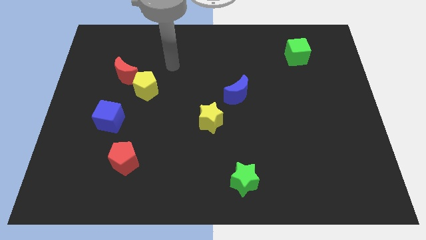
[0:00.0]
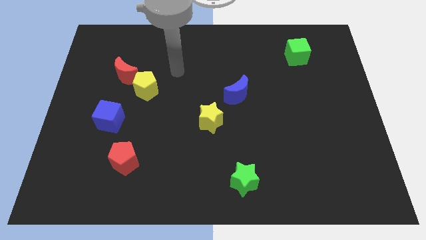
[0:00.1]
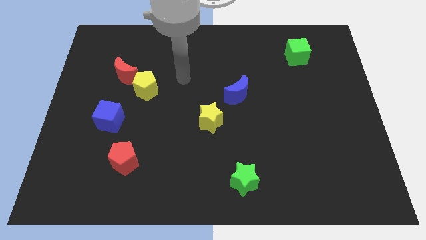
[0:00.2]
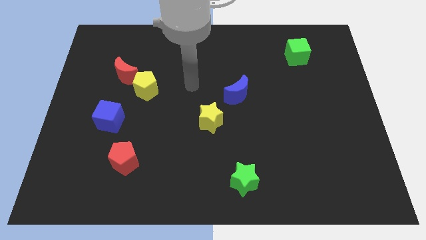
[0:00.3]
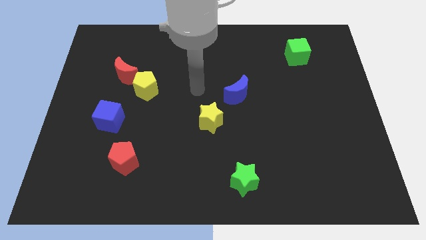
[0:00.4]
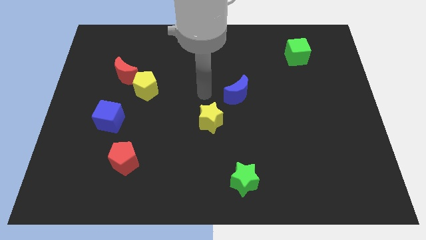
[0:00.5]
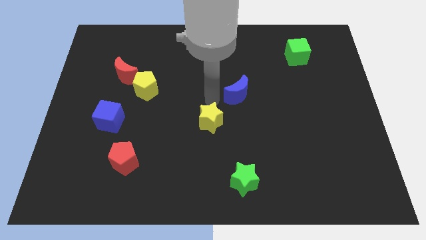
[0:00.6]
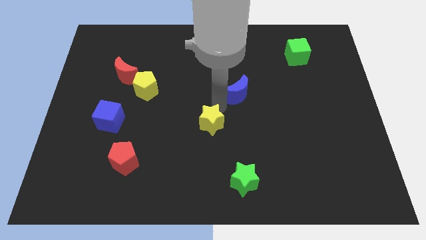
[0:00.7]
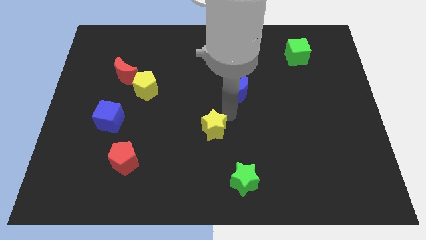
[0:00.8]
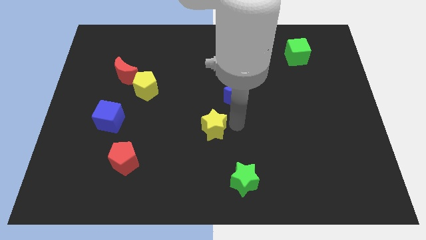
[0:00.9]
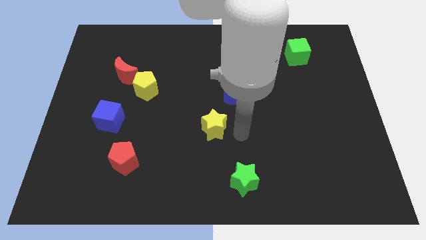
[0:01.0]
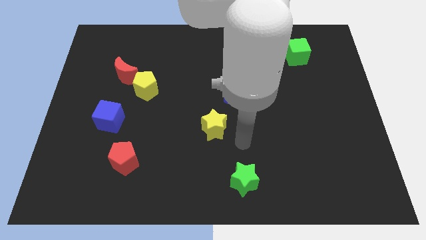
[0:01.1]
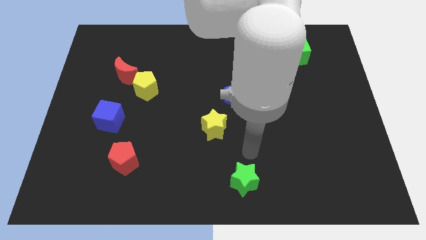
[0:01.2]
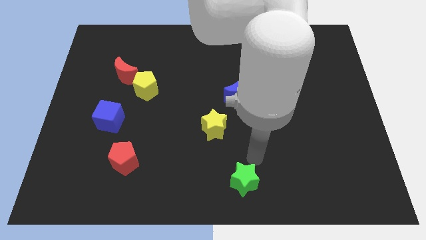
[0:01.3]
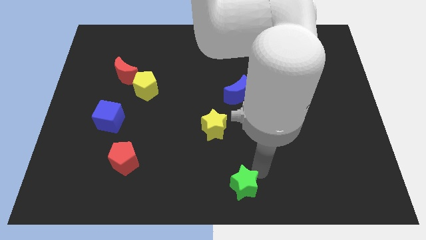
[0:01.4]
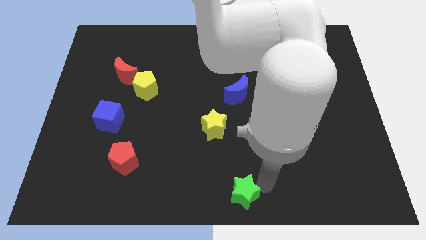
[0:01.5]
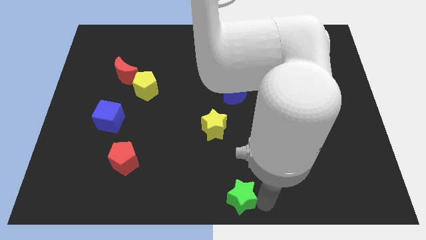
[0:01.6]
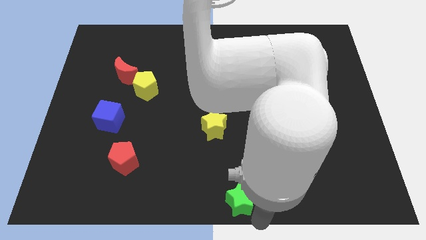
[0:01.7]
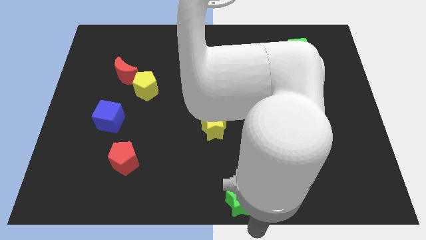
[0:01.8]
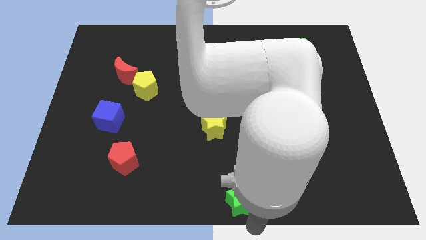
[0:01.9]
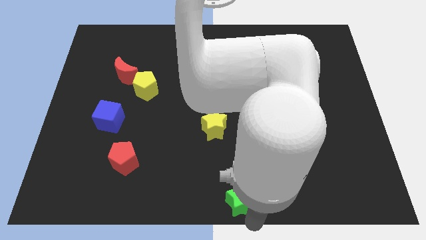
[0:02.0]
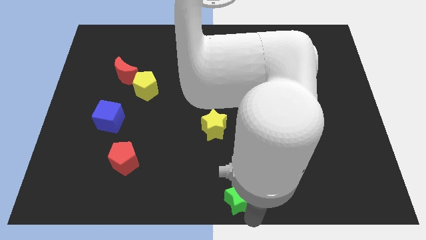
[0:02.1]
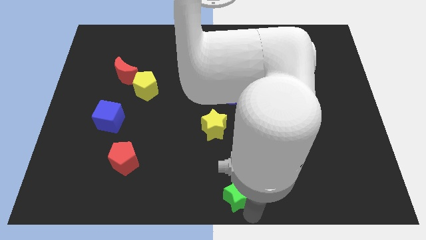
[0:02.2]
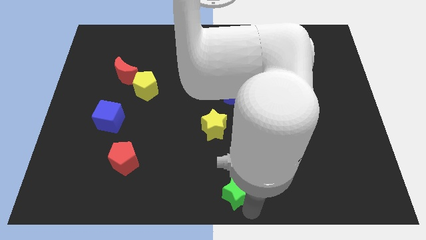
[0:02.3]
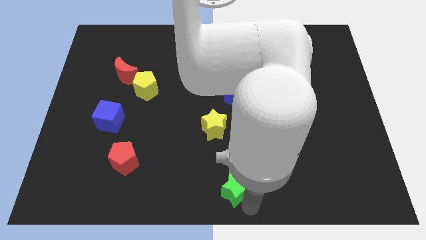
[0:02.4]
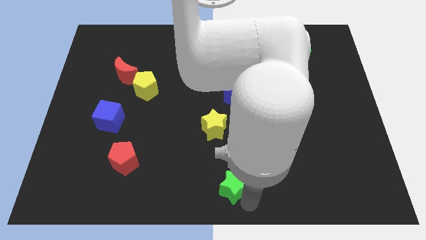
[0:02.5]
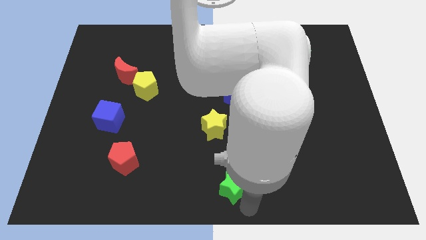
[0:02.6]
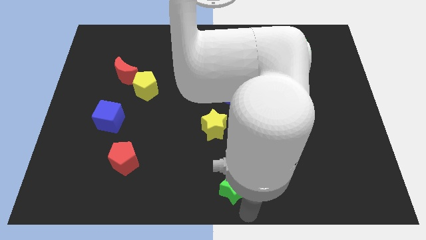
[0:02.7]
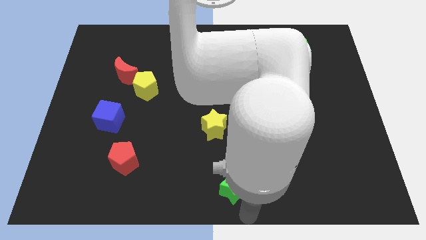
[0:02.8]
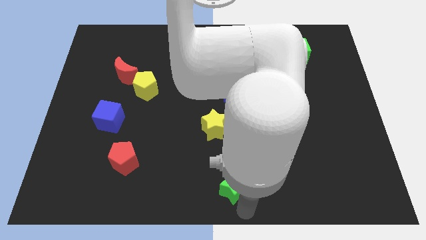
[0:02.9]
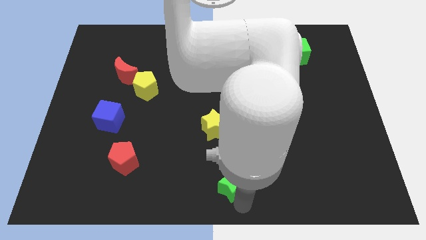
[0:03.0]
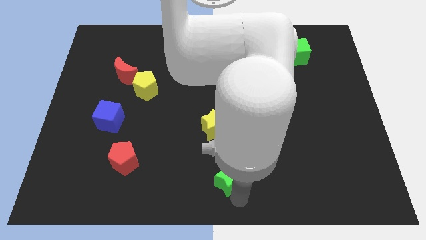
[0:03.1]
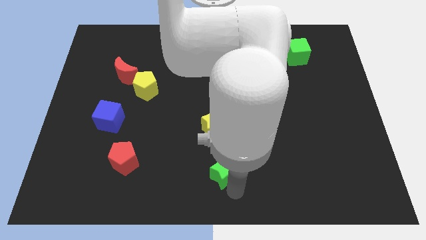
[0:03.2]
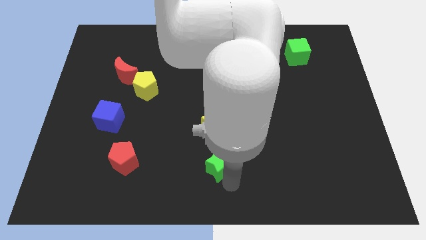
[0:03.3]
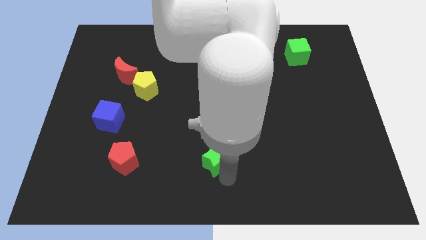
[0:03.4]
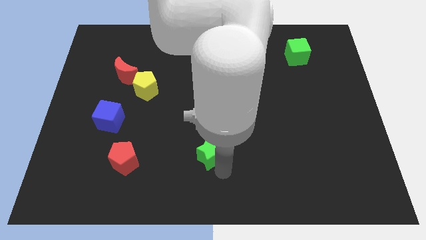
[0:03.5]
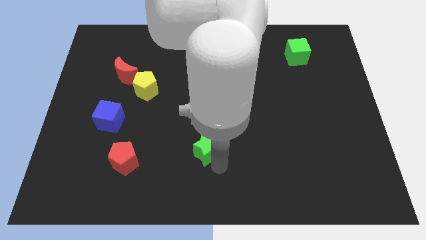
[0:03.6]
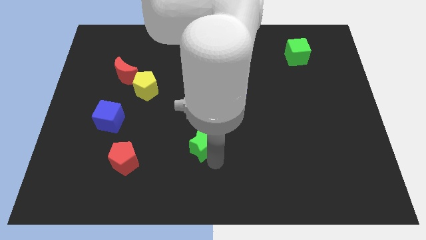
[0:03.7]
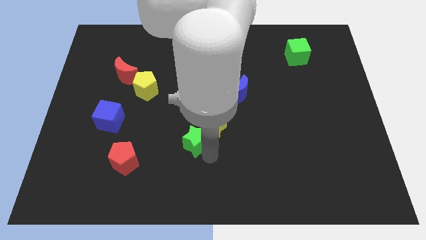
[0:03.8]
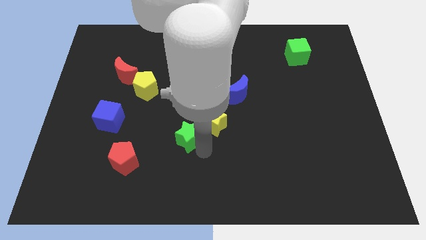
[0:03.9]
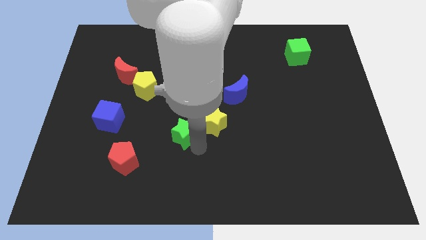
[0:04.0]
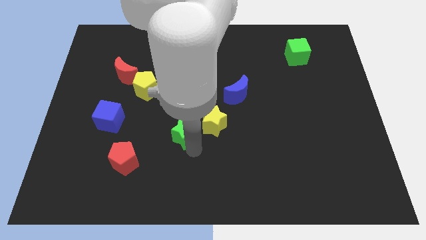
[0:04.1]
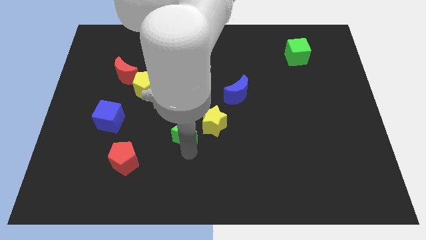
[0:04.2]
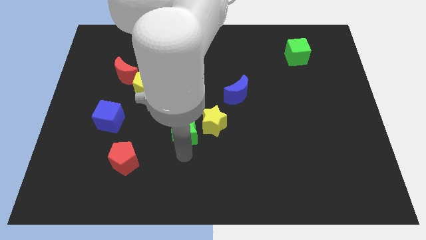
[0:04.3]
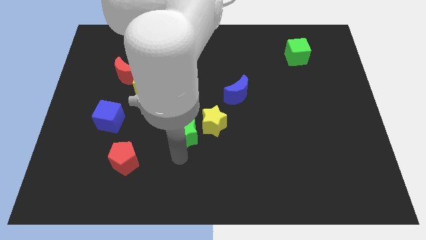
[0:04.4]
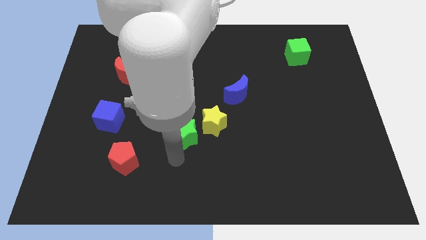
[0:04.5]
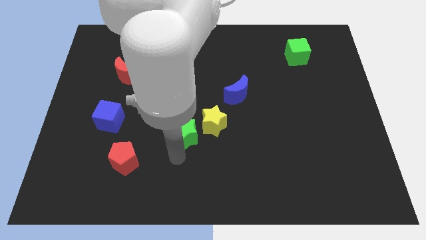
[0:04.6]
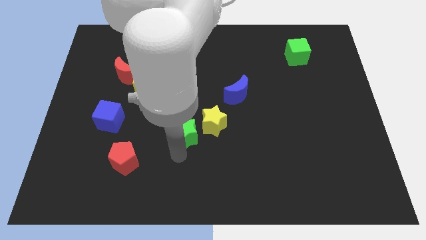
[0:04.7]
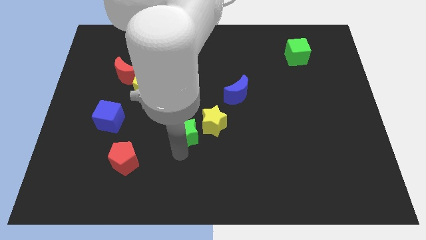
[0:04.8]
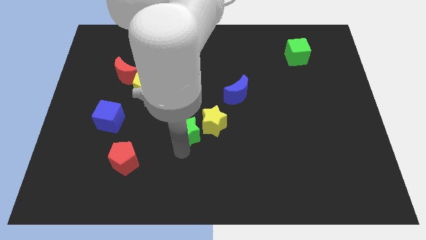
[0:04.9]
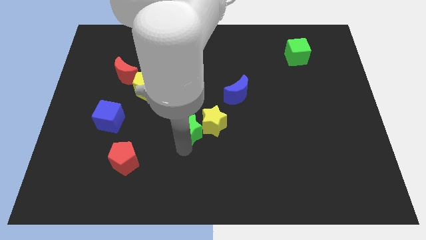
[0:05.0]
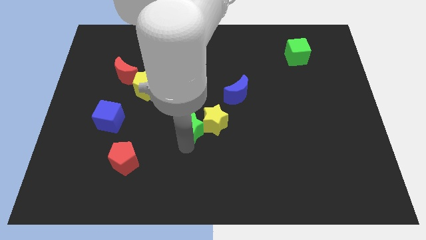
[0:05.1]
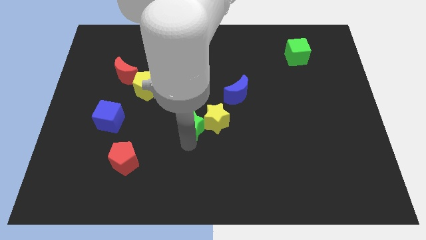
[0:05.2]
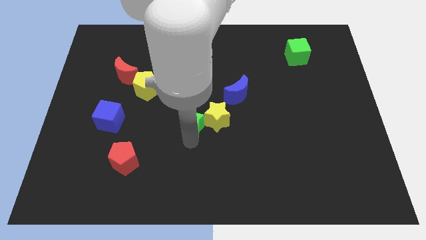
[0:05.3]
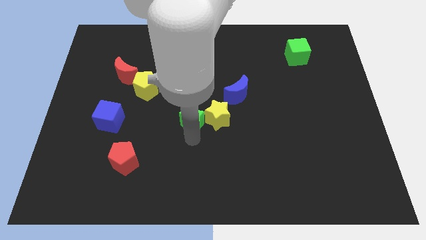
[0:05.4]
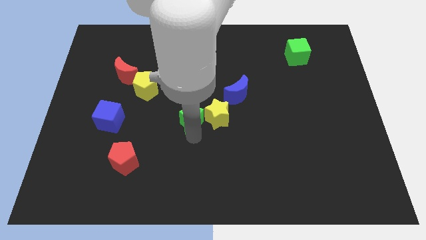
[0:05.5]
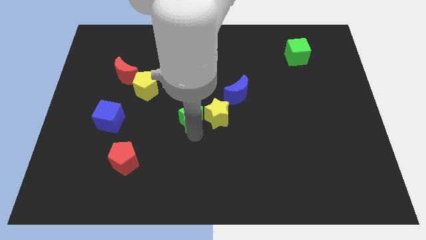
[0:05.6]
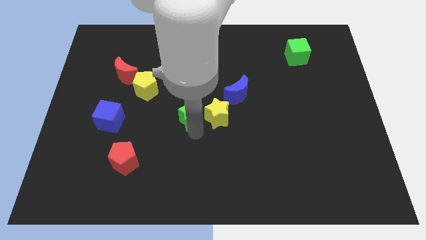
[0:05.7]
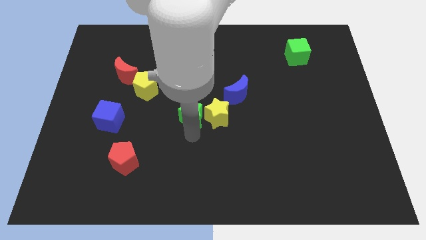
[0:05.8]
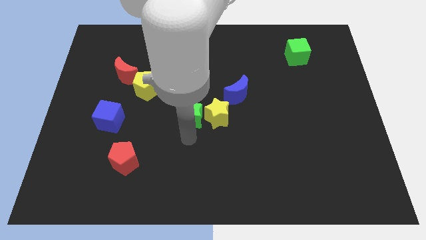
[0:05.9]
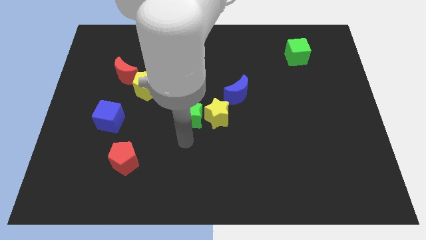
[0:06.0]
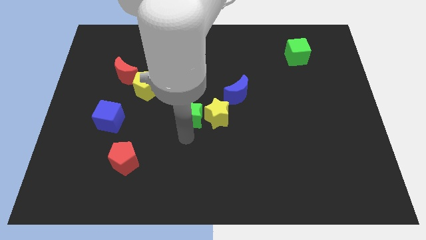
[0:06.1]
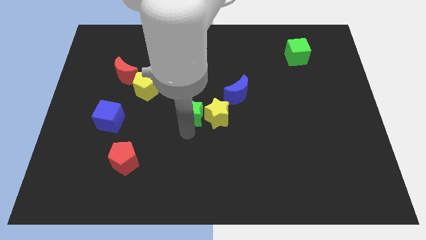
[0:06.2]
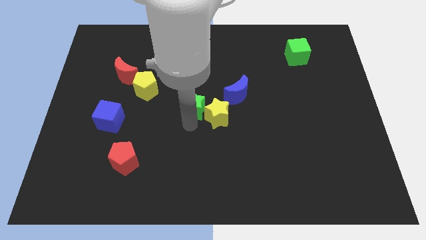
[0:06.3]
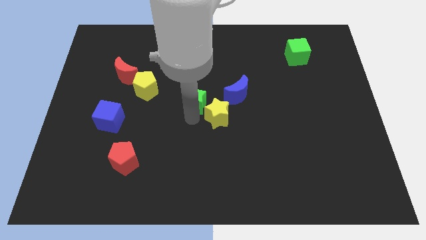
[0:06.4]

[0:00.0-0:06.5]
put the green star right of the yellow pentagon

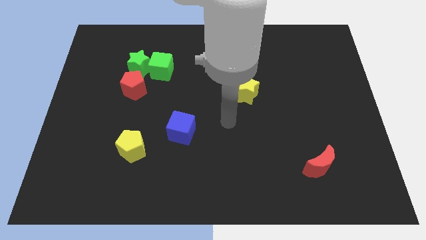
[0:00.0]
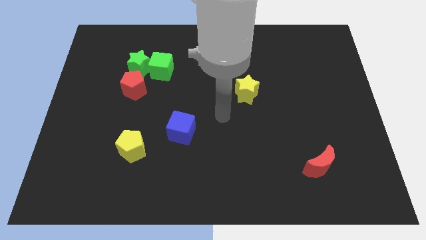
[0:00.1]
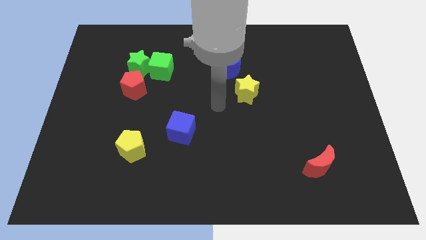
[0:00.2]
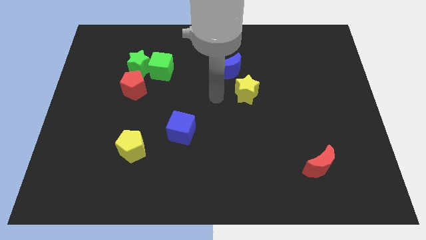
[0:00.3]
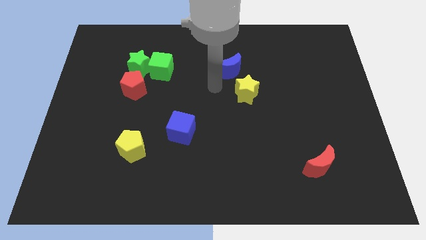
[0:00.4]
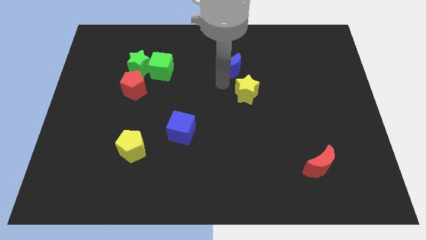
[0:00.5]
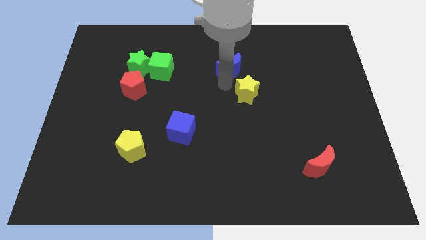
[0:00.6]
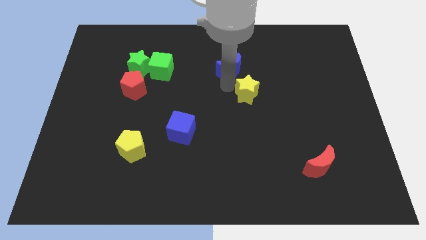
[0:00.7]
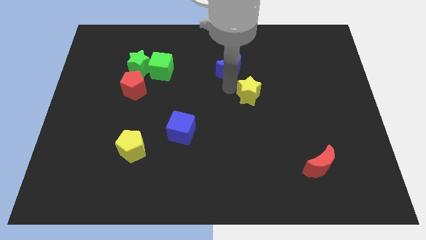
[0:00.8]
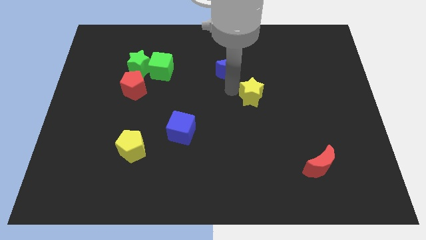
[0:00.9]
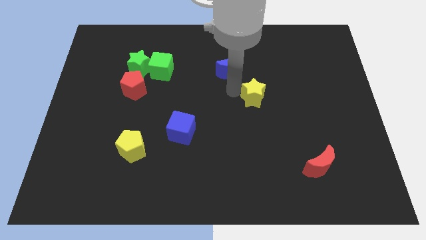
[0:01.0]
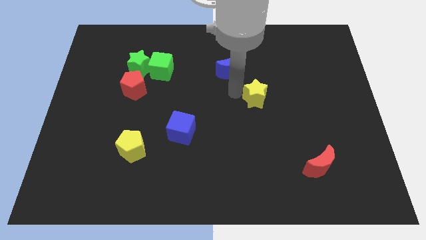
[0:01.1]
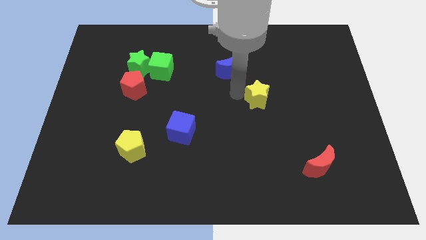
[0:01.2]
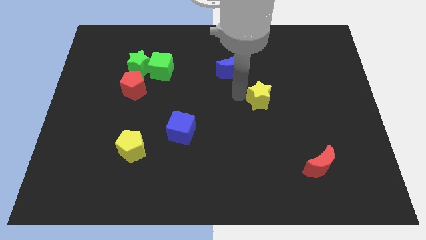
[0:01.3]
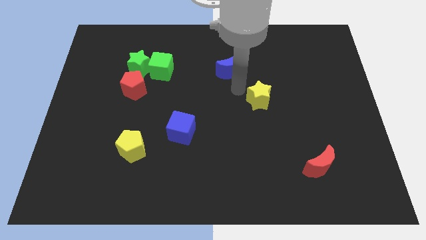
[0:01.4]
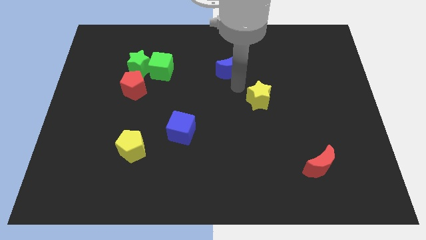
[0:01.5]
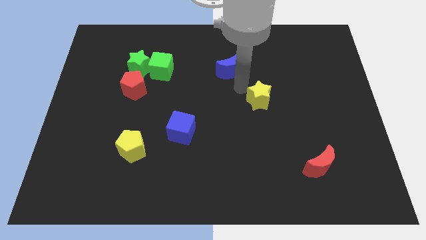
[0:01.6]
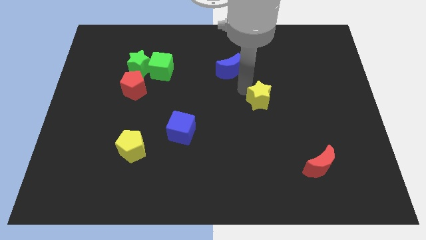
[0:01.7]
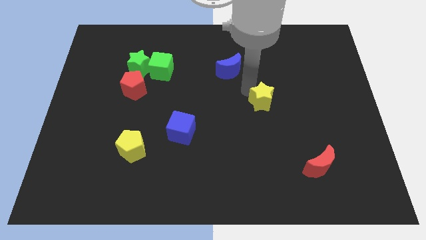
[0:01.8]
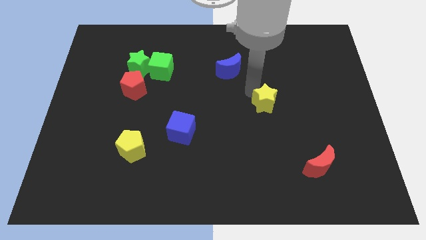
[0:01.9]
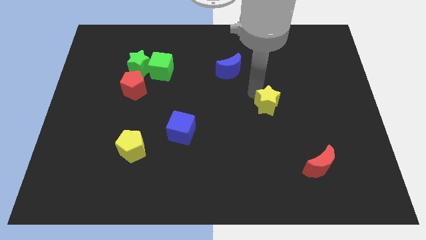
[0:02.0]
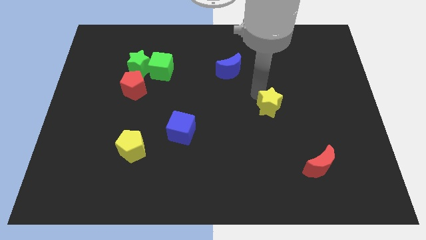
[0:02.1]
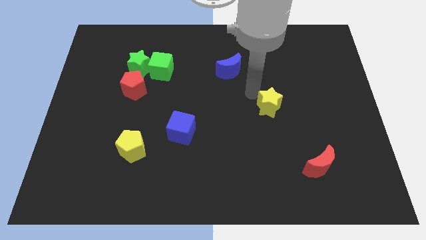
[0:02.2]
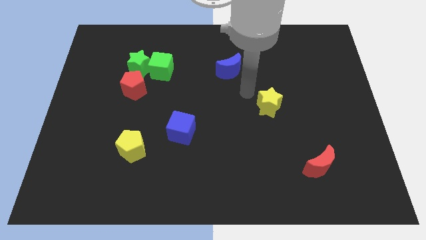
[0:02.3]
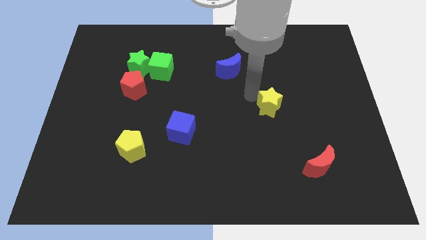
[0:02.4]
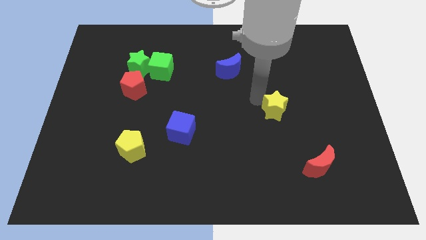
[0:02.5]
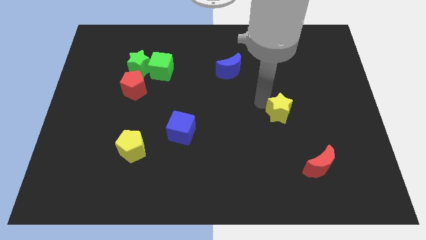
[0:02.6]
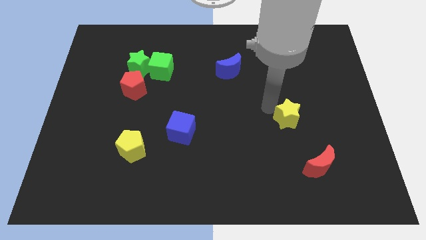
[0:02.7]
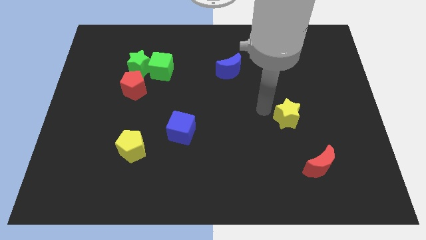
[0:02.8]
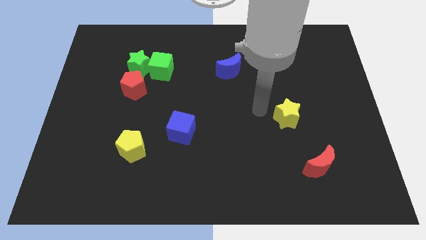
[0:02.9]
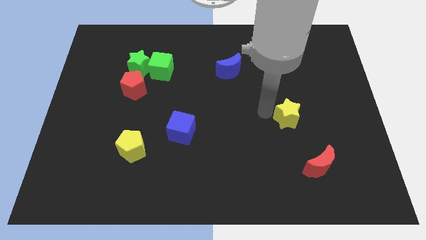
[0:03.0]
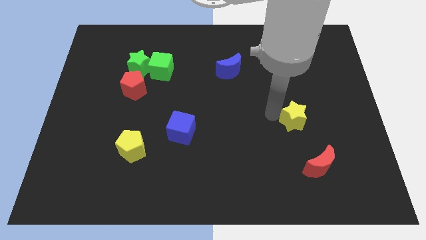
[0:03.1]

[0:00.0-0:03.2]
push the yellow star to the top side of the red moon
